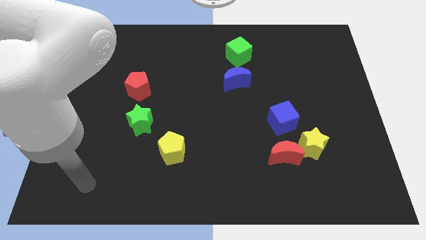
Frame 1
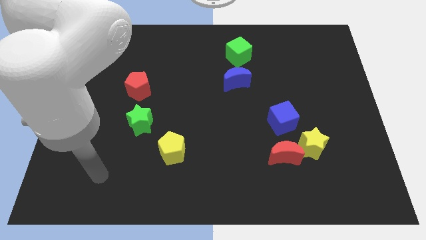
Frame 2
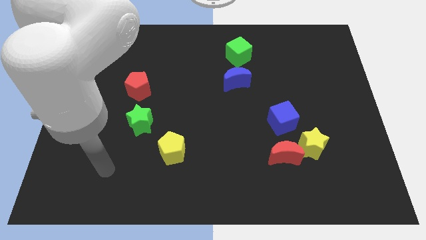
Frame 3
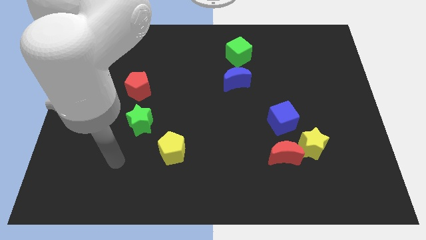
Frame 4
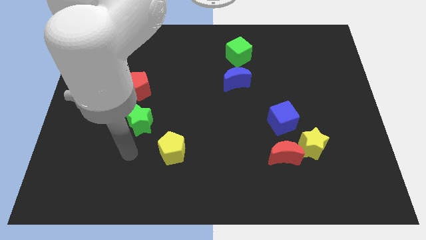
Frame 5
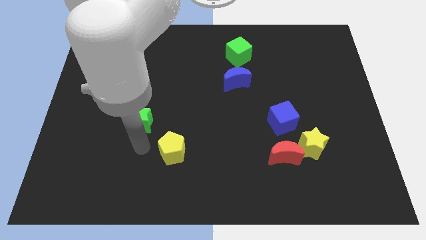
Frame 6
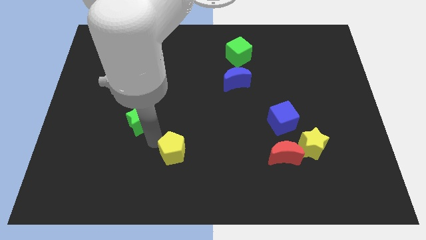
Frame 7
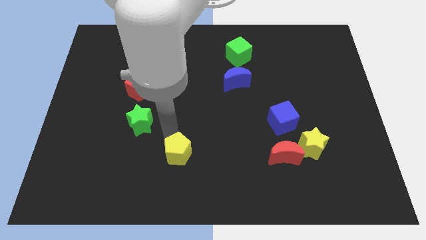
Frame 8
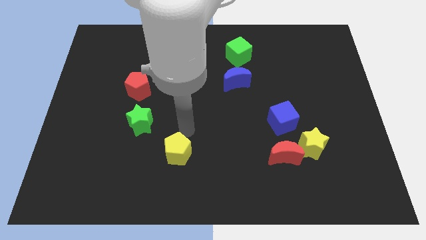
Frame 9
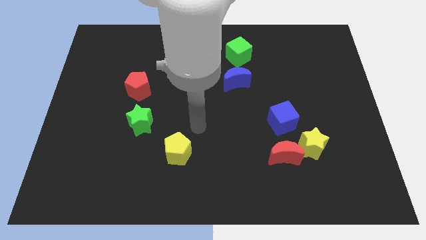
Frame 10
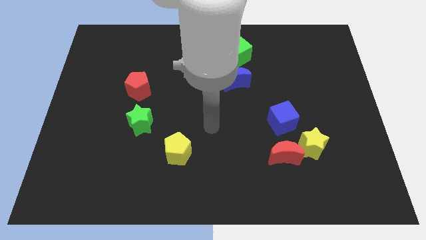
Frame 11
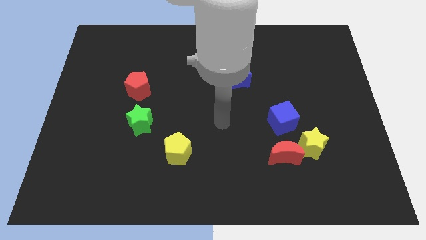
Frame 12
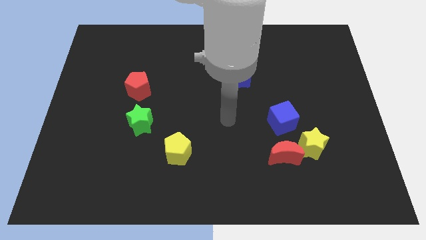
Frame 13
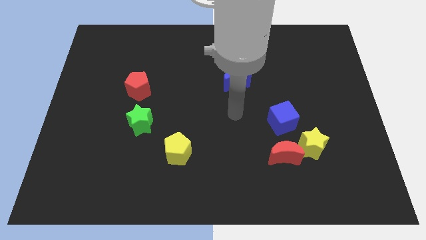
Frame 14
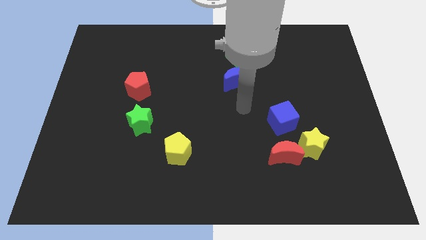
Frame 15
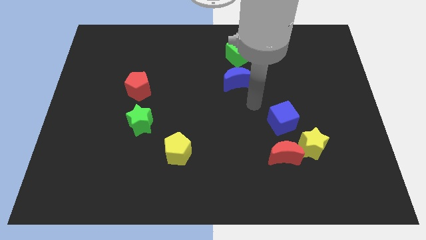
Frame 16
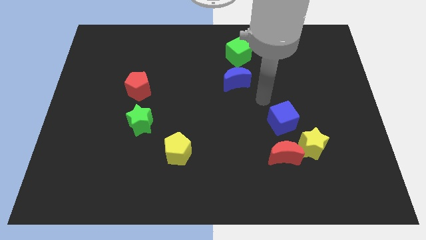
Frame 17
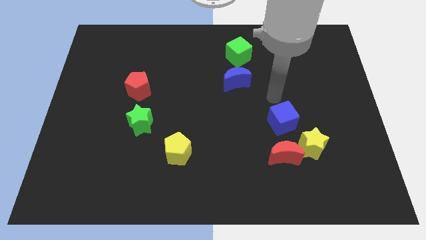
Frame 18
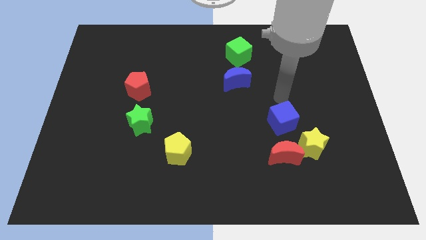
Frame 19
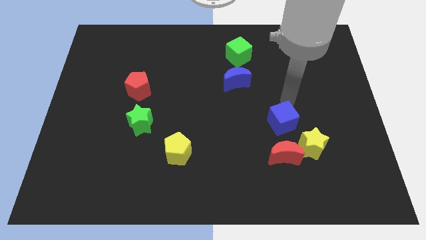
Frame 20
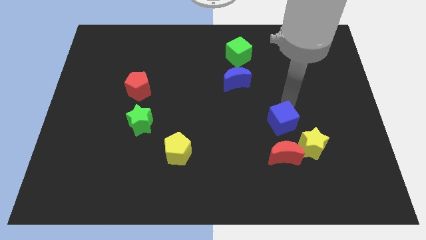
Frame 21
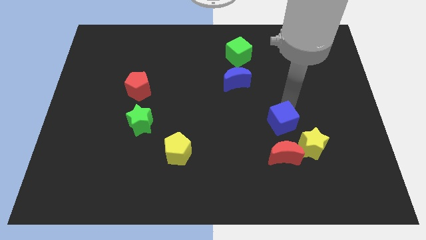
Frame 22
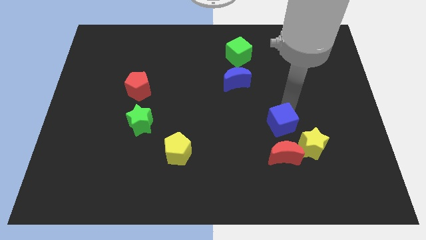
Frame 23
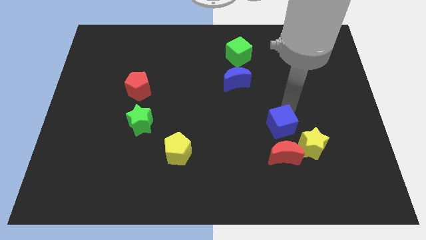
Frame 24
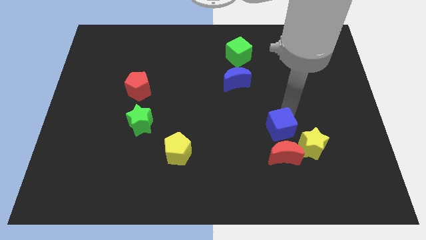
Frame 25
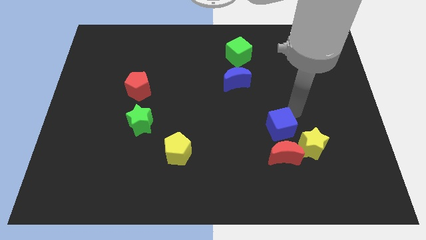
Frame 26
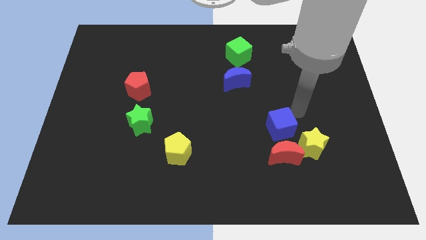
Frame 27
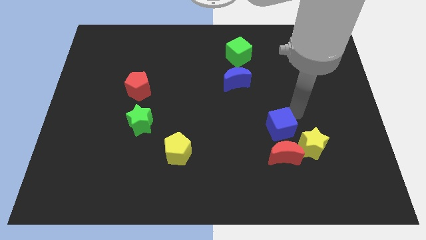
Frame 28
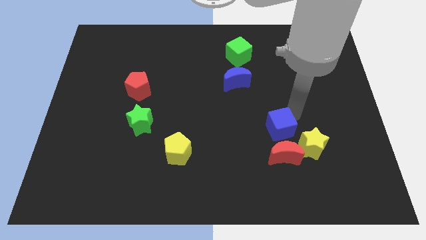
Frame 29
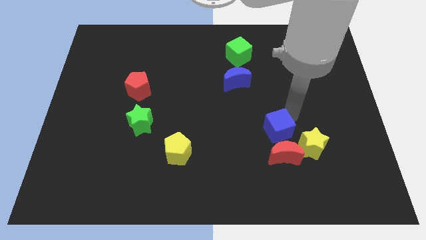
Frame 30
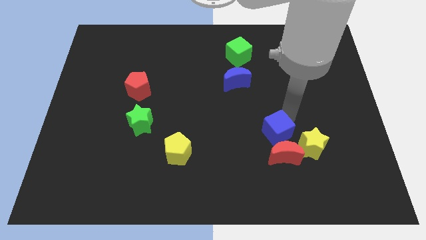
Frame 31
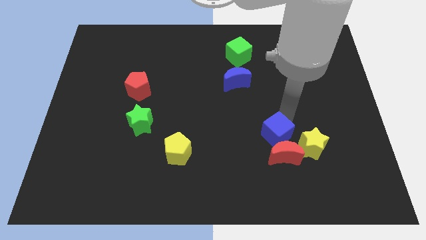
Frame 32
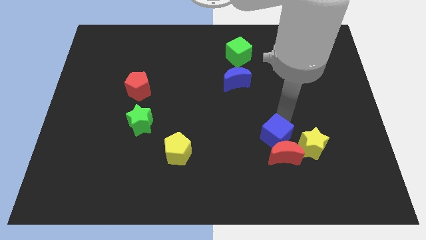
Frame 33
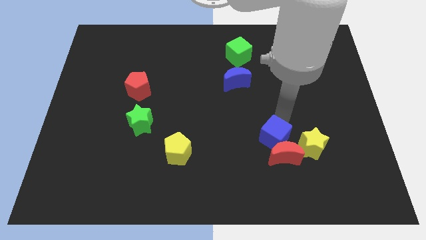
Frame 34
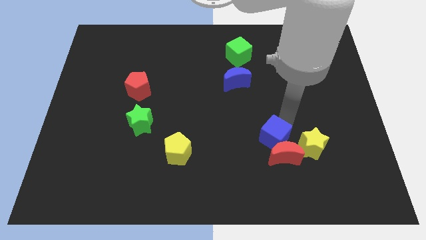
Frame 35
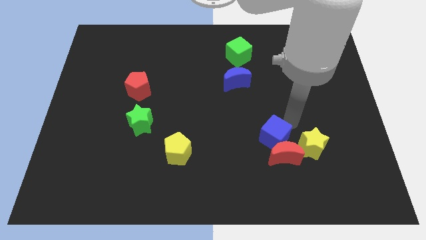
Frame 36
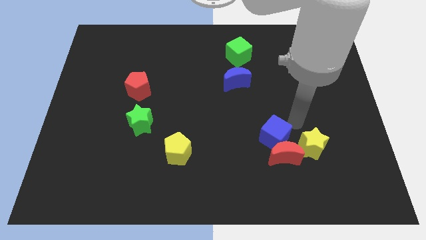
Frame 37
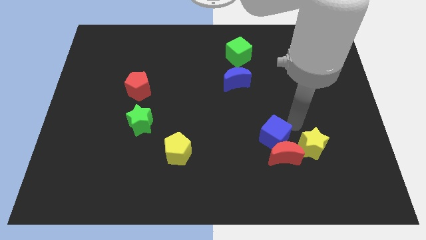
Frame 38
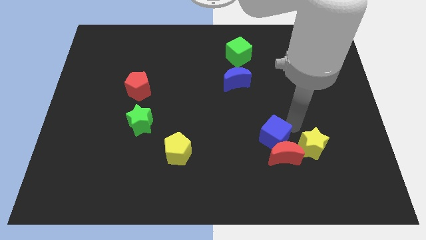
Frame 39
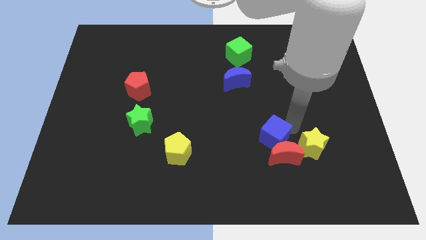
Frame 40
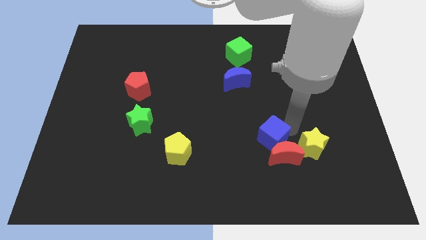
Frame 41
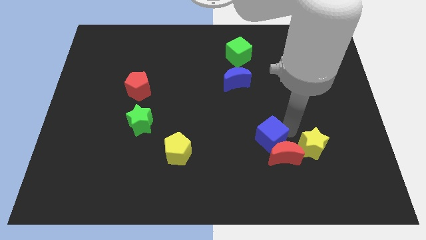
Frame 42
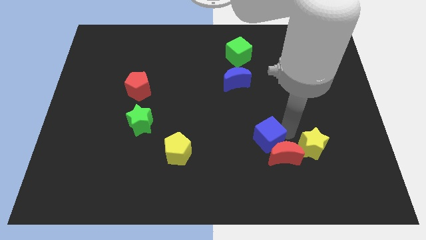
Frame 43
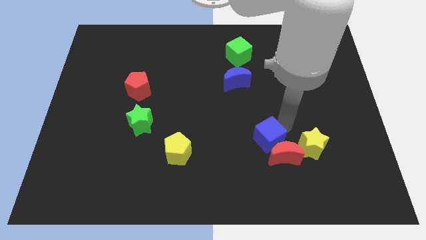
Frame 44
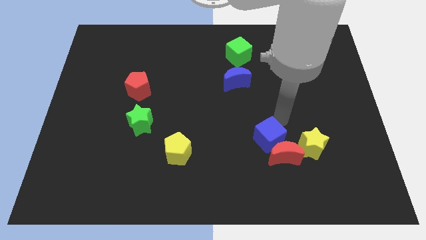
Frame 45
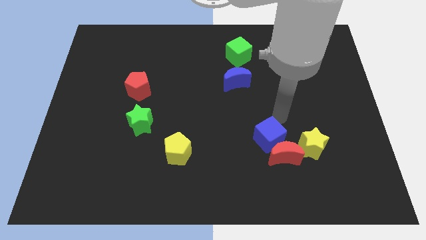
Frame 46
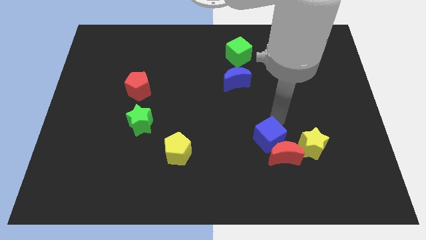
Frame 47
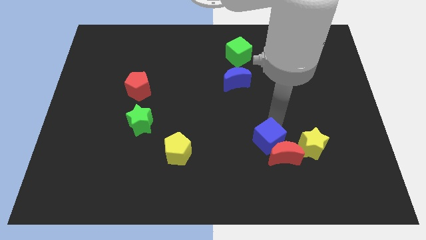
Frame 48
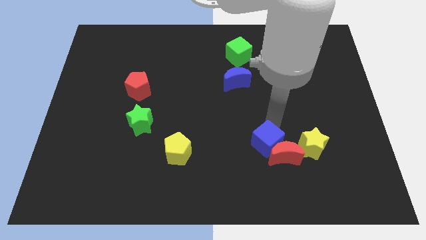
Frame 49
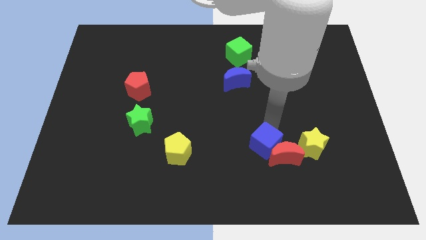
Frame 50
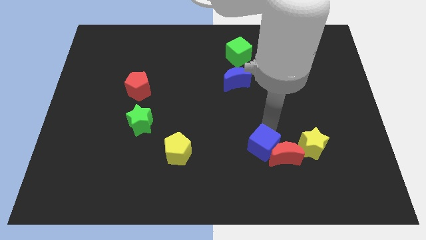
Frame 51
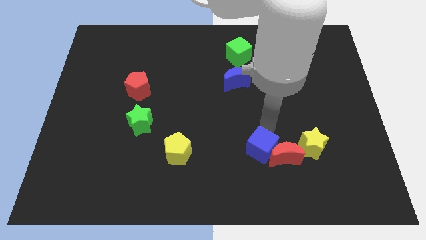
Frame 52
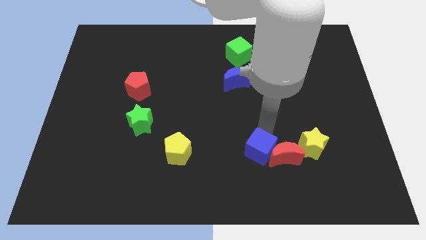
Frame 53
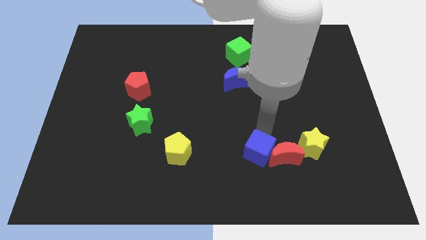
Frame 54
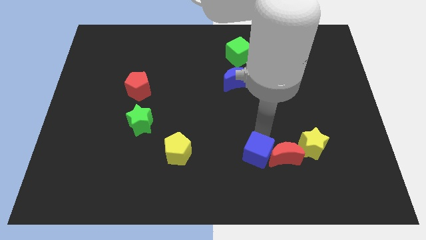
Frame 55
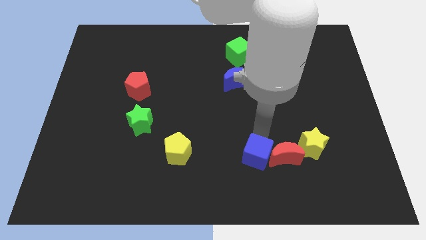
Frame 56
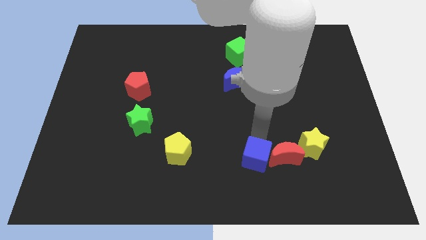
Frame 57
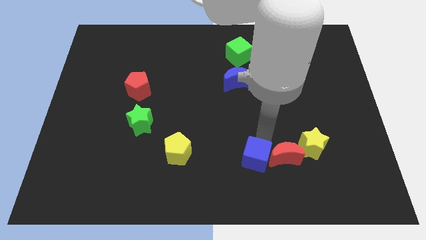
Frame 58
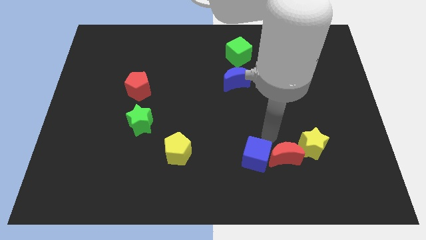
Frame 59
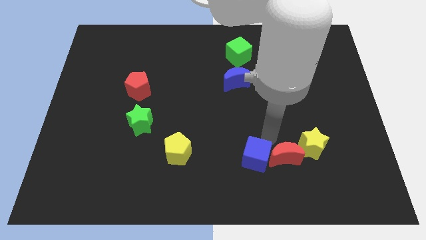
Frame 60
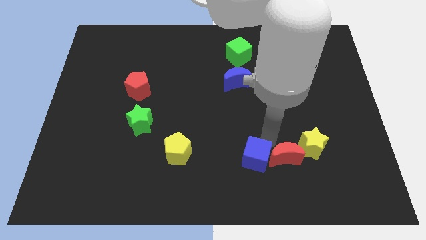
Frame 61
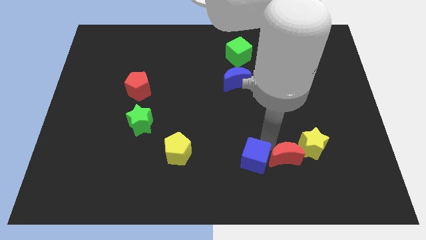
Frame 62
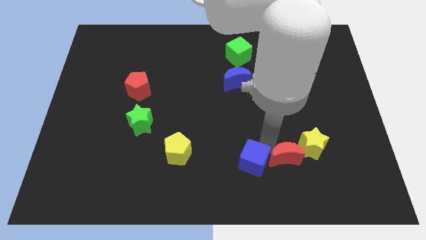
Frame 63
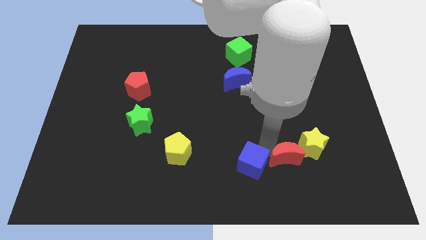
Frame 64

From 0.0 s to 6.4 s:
put the blue cube to the bottom side
